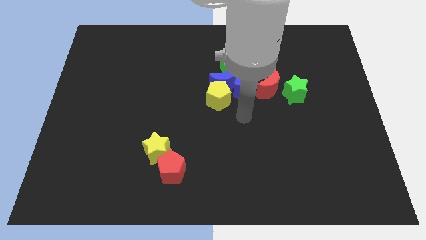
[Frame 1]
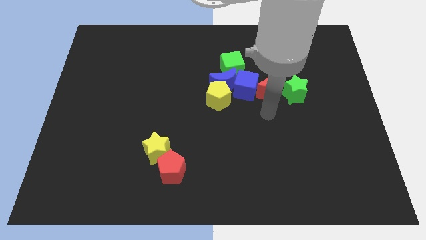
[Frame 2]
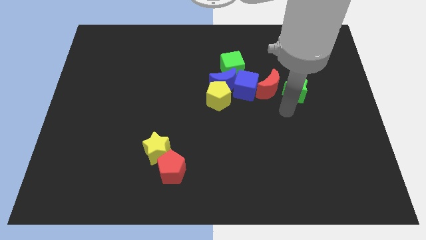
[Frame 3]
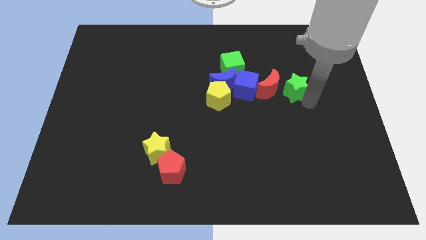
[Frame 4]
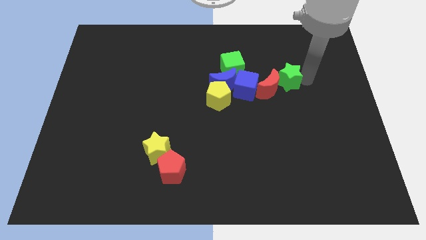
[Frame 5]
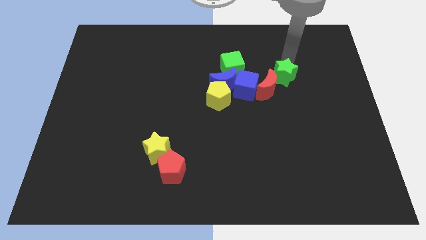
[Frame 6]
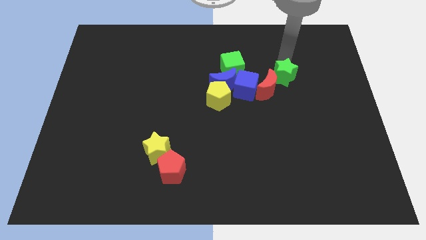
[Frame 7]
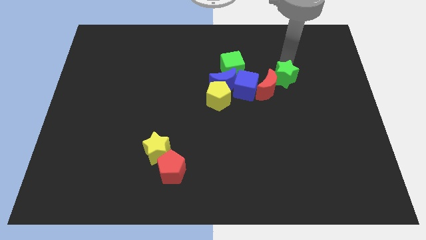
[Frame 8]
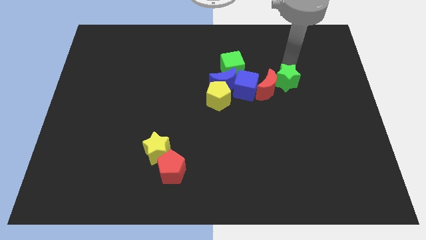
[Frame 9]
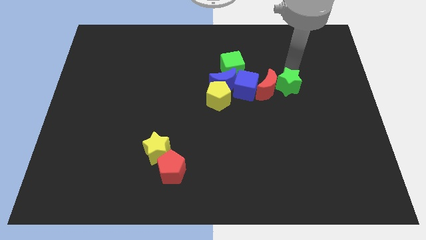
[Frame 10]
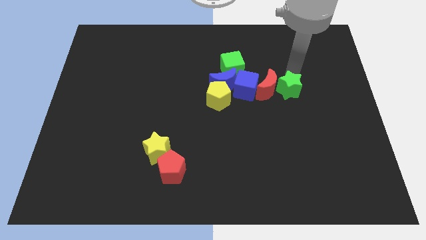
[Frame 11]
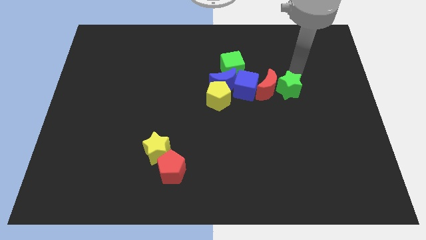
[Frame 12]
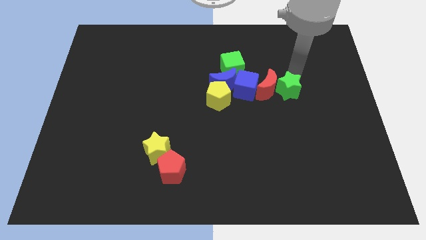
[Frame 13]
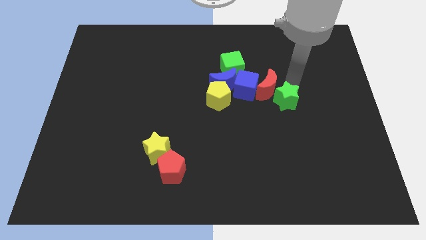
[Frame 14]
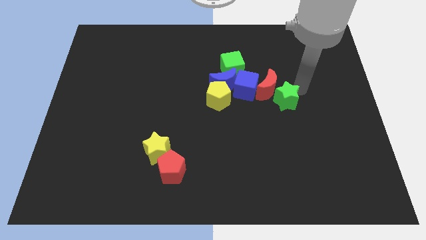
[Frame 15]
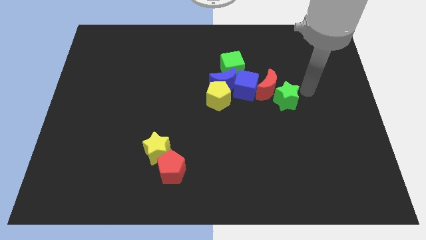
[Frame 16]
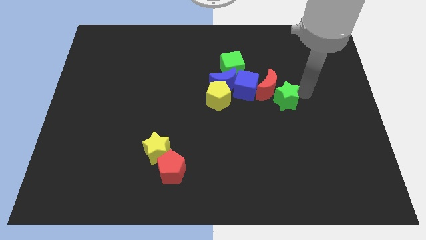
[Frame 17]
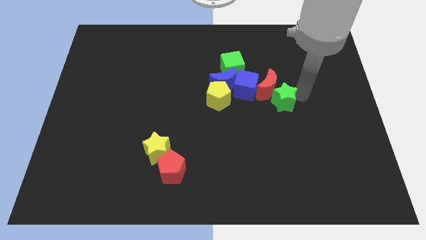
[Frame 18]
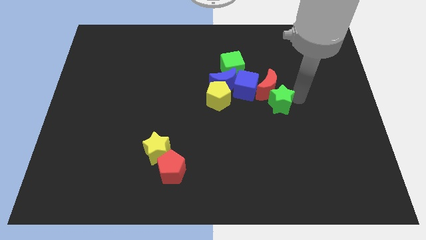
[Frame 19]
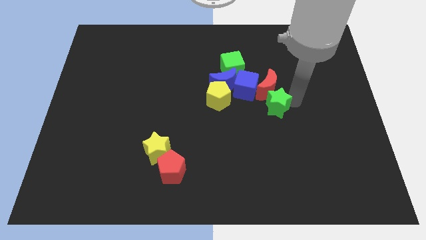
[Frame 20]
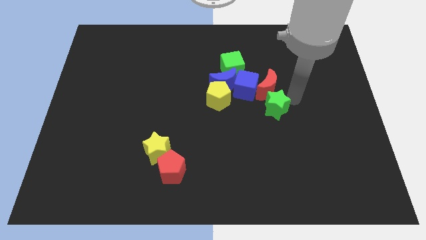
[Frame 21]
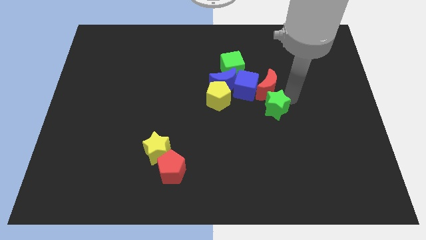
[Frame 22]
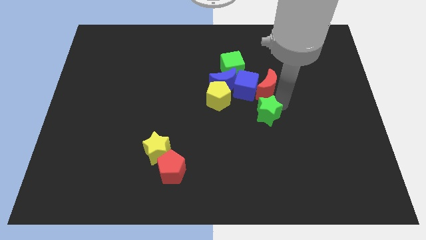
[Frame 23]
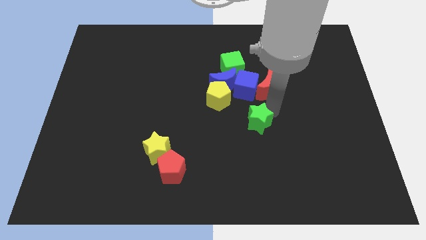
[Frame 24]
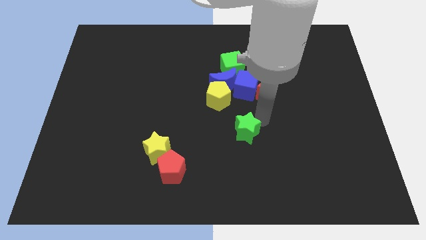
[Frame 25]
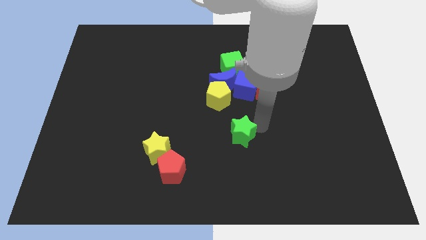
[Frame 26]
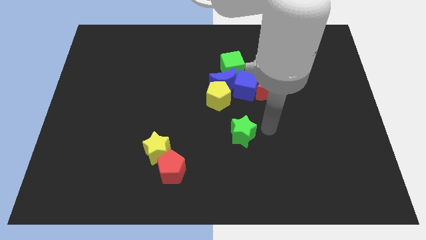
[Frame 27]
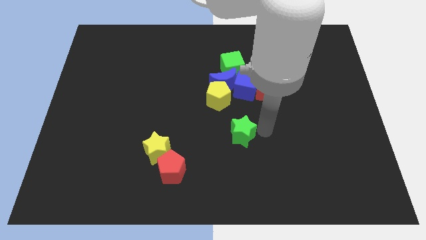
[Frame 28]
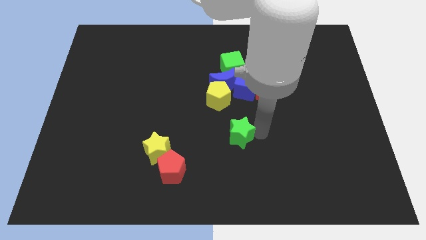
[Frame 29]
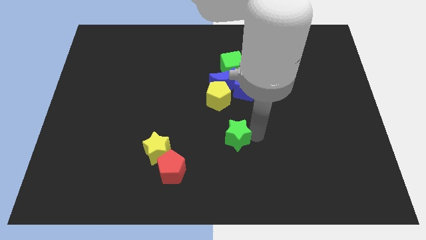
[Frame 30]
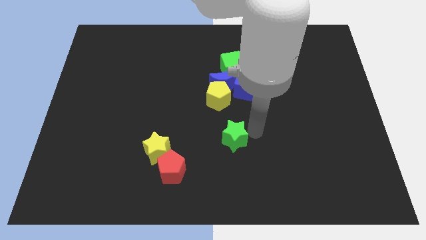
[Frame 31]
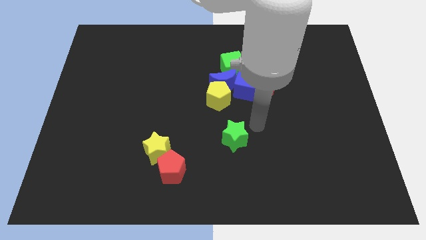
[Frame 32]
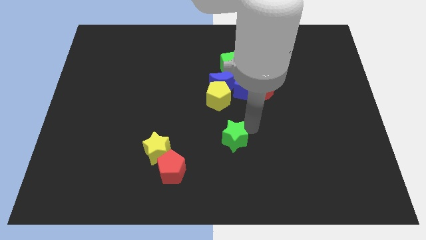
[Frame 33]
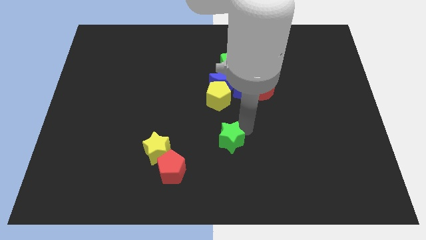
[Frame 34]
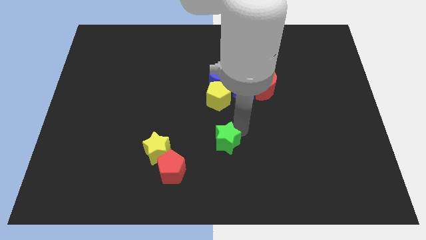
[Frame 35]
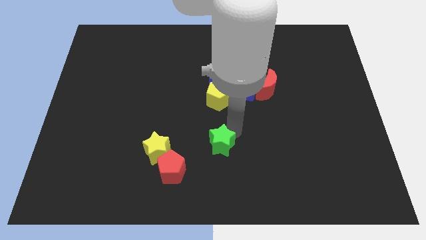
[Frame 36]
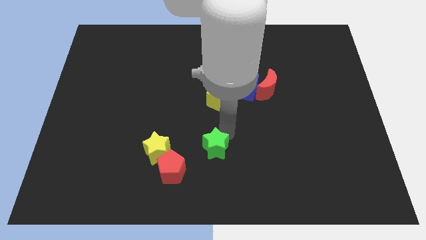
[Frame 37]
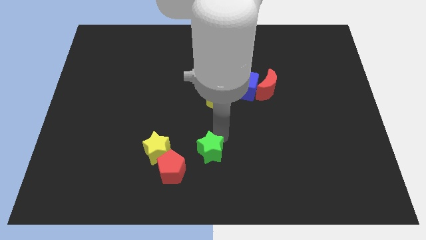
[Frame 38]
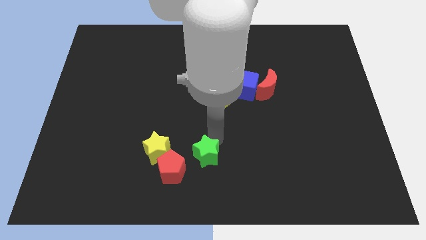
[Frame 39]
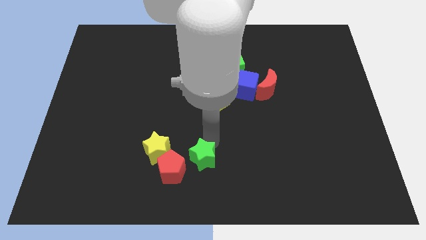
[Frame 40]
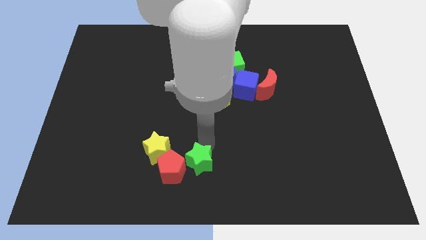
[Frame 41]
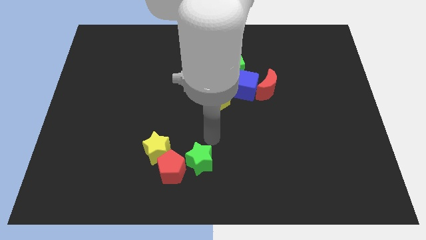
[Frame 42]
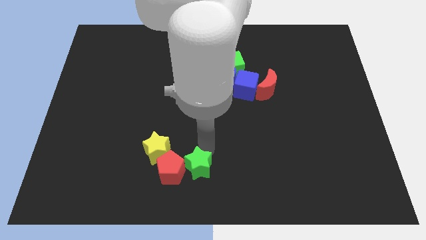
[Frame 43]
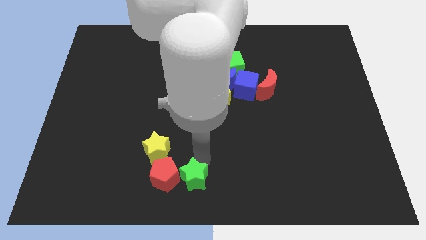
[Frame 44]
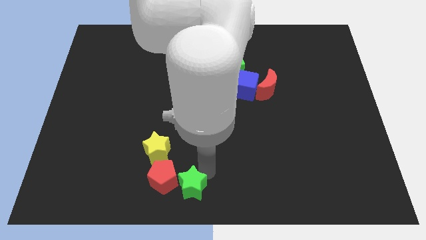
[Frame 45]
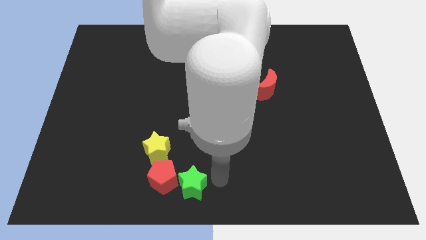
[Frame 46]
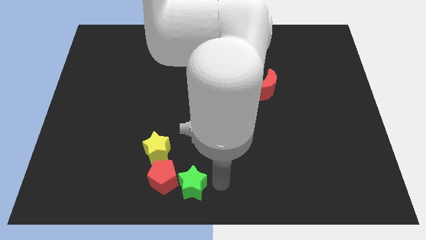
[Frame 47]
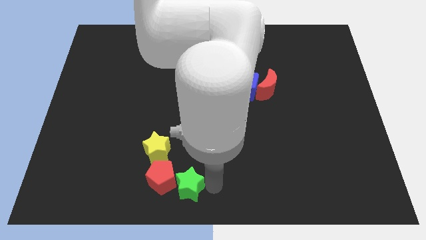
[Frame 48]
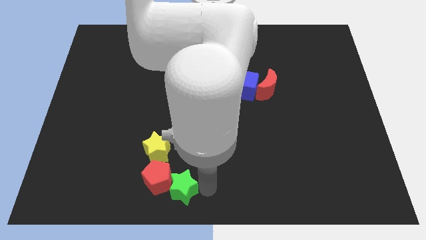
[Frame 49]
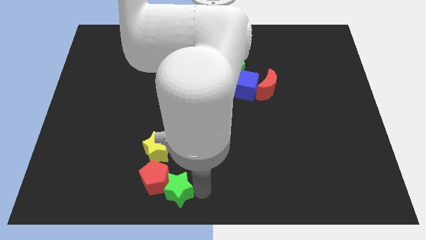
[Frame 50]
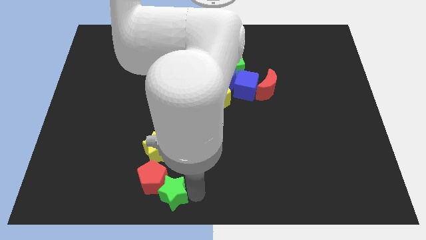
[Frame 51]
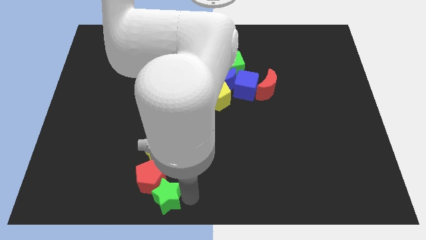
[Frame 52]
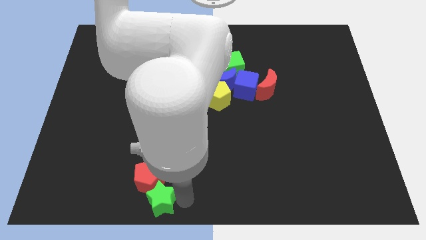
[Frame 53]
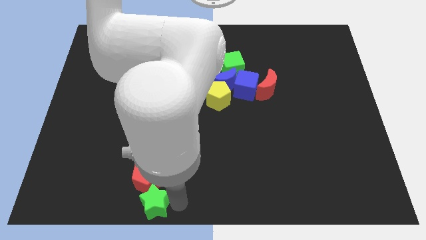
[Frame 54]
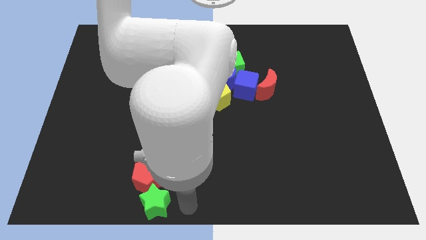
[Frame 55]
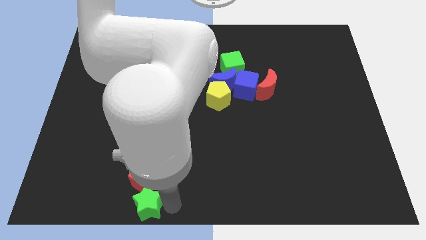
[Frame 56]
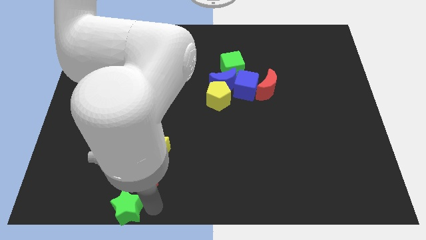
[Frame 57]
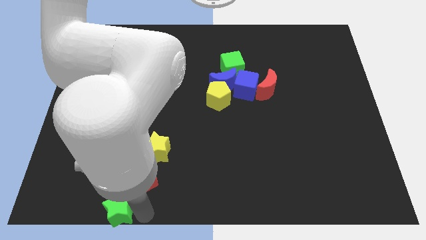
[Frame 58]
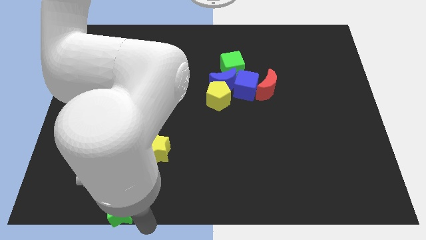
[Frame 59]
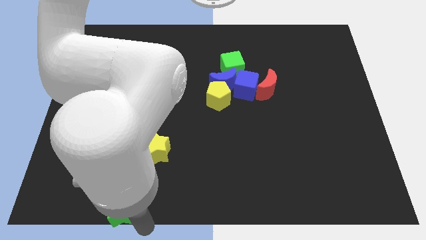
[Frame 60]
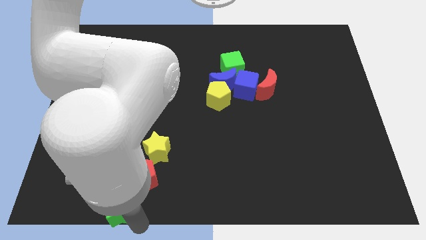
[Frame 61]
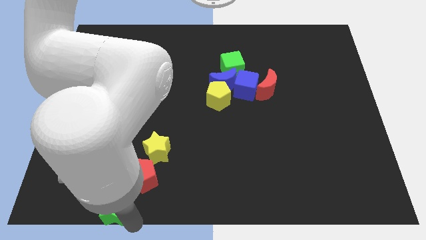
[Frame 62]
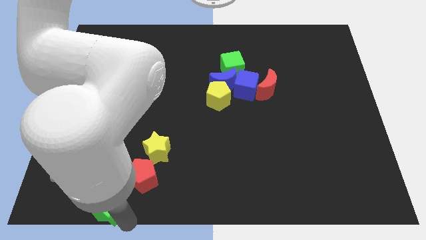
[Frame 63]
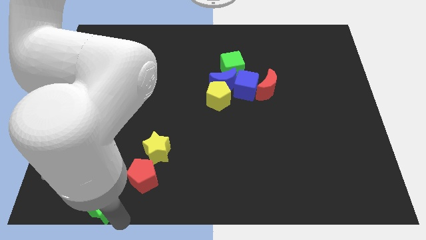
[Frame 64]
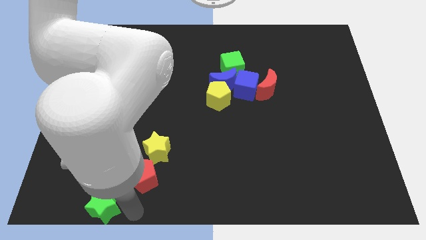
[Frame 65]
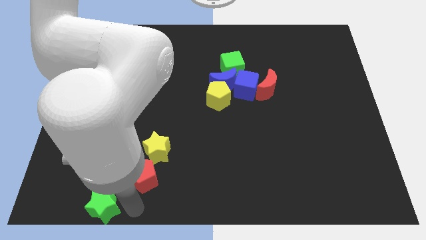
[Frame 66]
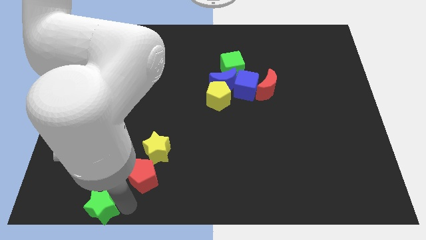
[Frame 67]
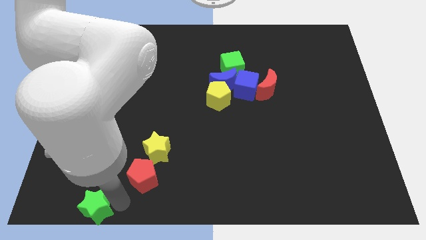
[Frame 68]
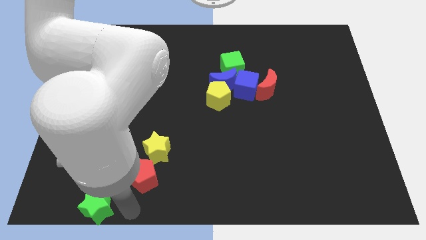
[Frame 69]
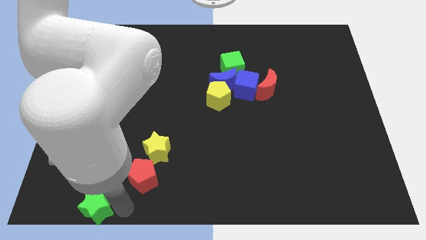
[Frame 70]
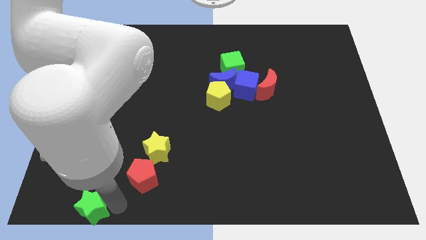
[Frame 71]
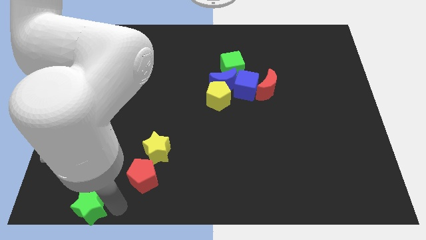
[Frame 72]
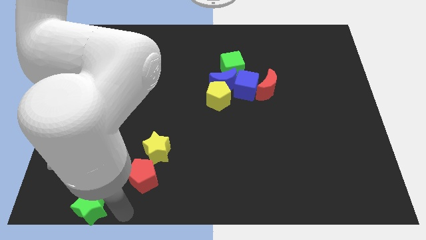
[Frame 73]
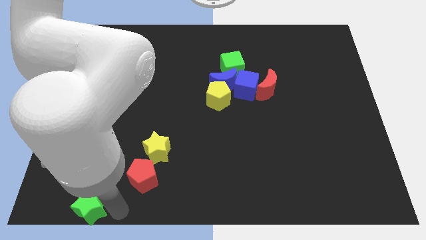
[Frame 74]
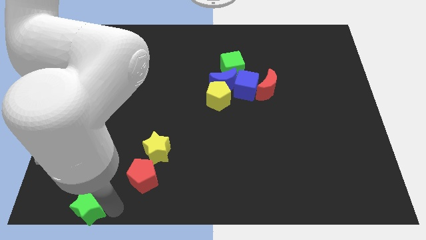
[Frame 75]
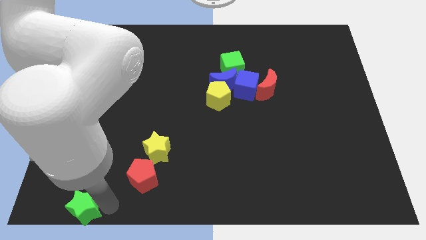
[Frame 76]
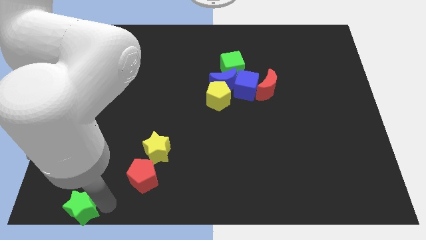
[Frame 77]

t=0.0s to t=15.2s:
slide the green star to the bottom left corner
